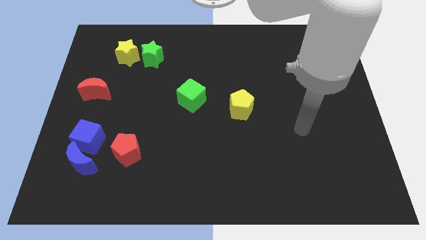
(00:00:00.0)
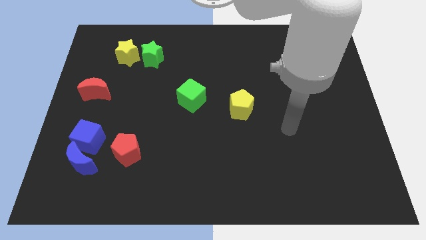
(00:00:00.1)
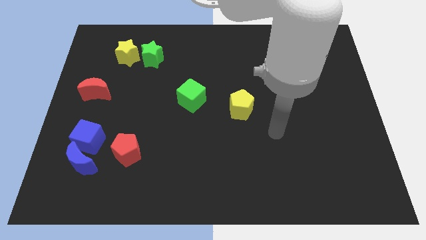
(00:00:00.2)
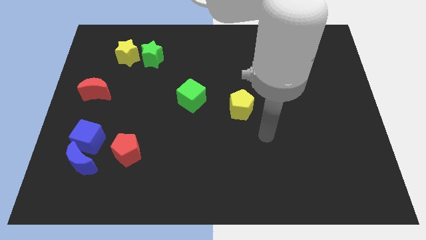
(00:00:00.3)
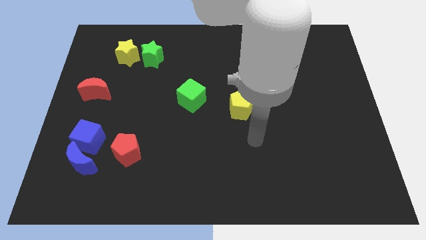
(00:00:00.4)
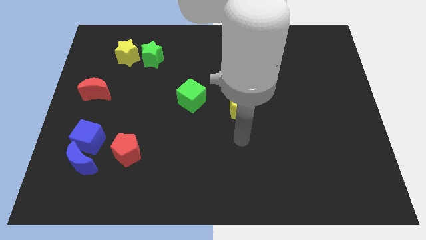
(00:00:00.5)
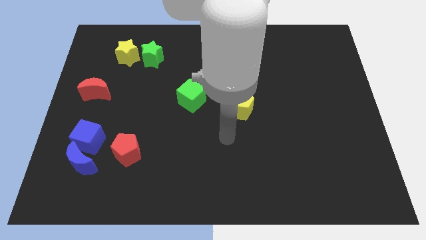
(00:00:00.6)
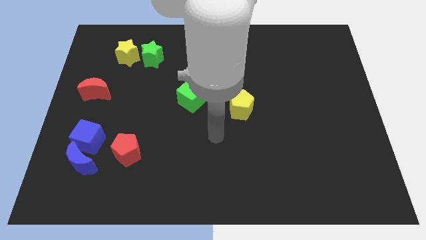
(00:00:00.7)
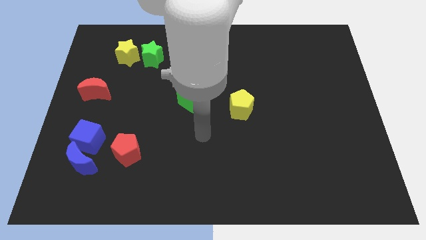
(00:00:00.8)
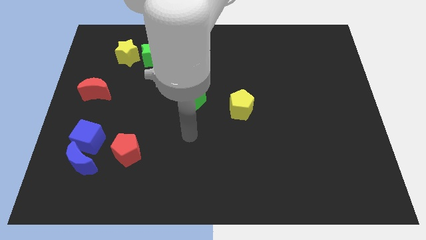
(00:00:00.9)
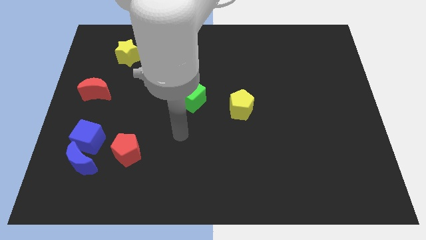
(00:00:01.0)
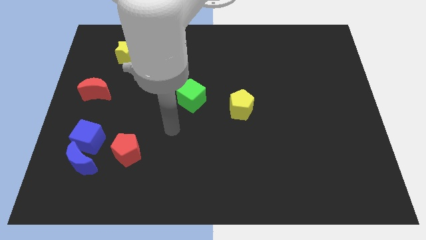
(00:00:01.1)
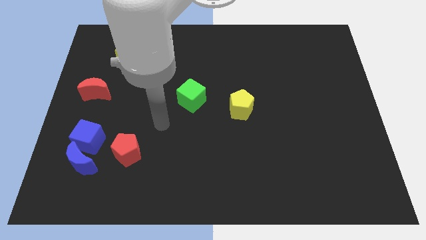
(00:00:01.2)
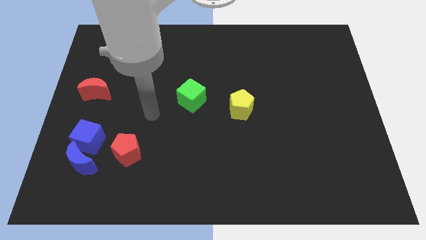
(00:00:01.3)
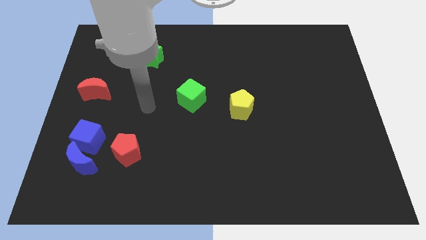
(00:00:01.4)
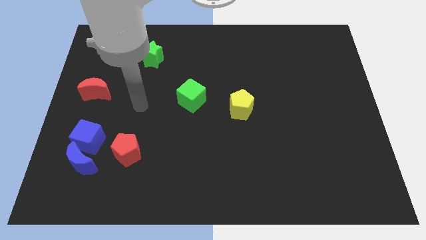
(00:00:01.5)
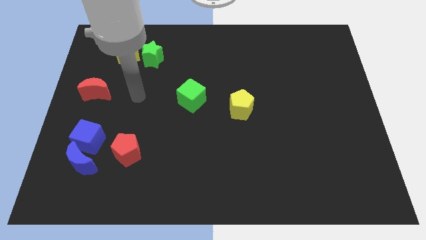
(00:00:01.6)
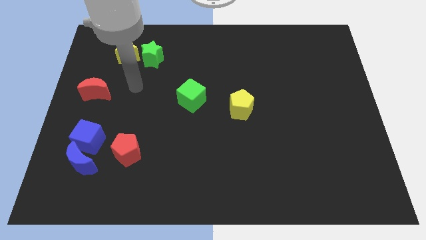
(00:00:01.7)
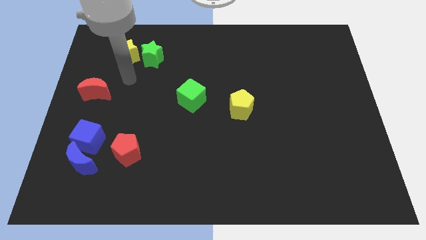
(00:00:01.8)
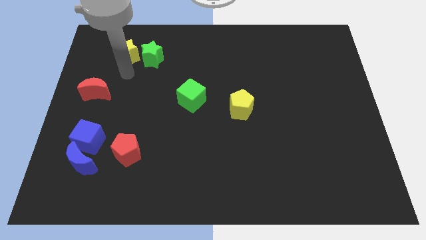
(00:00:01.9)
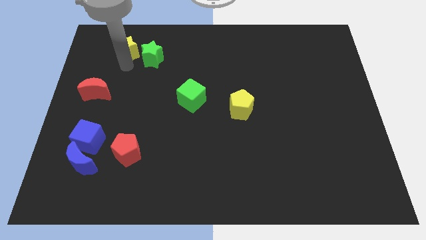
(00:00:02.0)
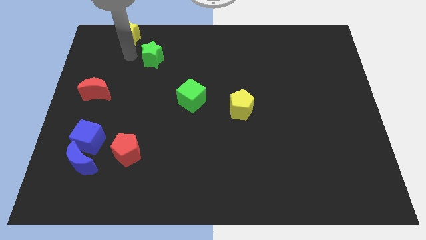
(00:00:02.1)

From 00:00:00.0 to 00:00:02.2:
pull the green star apart from the yellow star

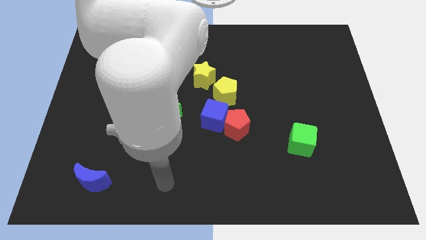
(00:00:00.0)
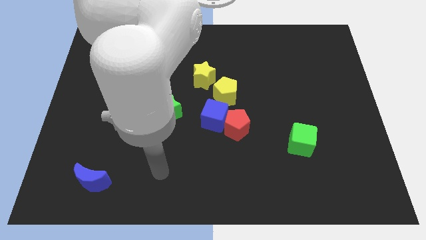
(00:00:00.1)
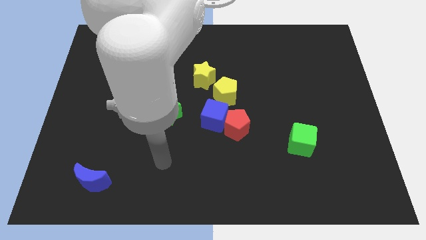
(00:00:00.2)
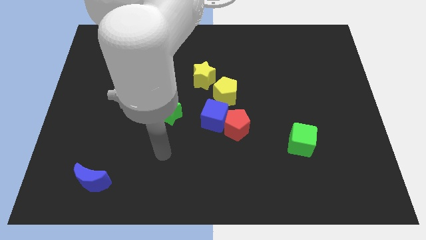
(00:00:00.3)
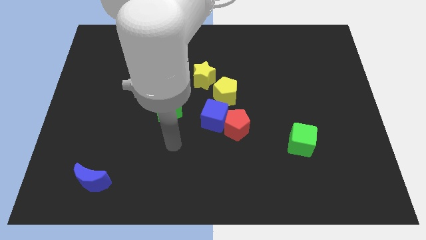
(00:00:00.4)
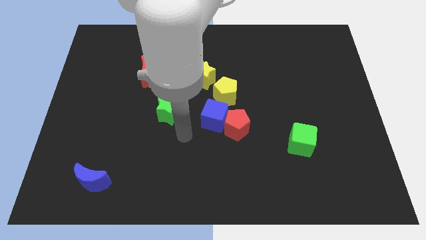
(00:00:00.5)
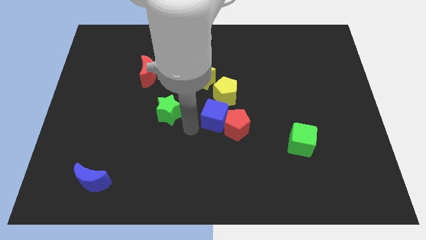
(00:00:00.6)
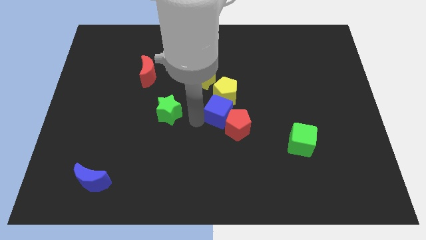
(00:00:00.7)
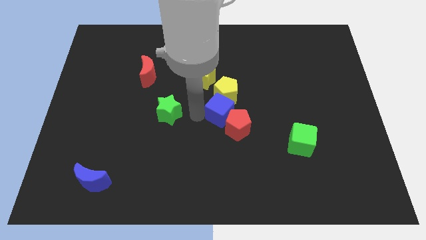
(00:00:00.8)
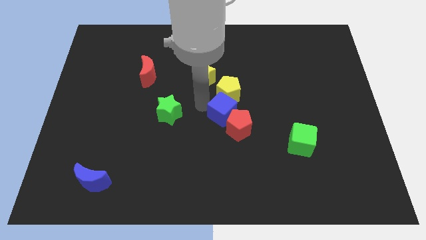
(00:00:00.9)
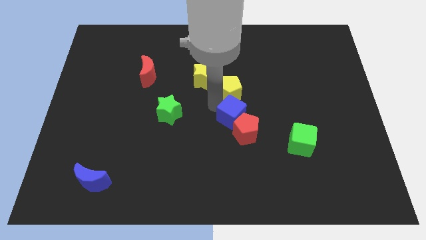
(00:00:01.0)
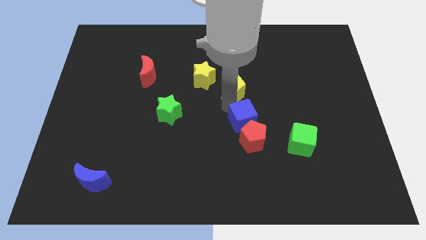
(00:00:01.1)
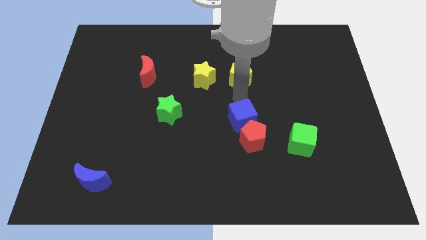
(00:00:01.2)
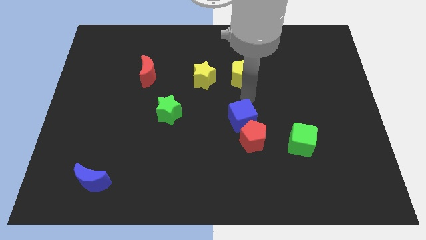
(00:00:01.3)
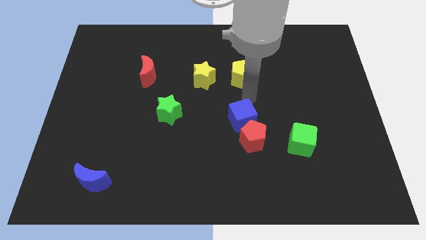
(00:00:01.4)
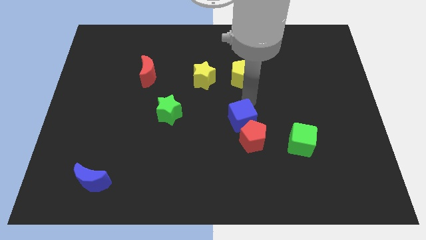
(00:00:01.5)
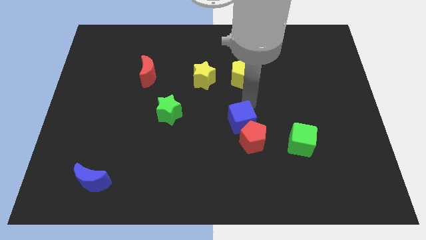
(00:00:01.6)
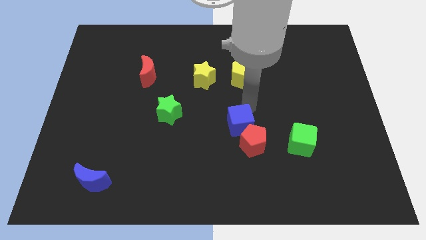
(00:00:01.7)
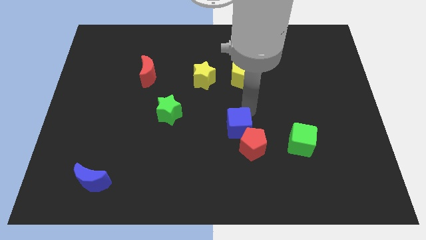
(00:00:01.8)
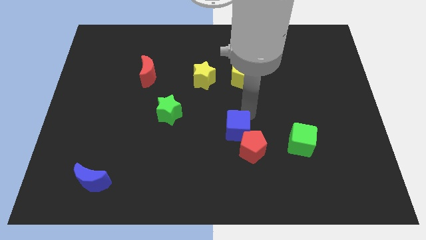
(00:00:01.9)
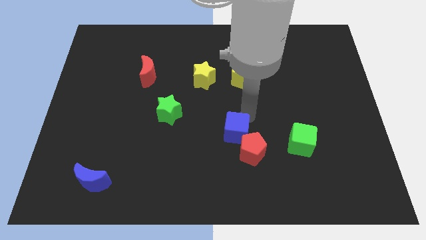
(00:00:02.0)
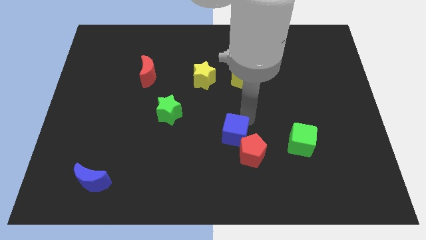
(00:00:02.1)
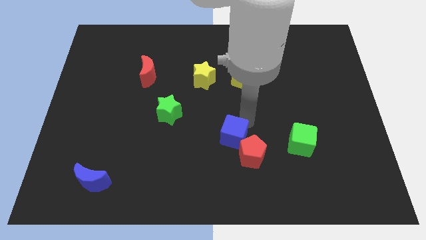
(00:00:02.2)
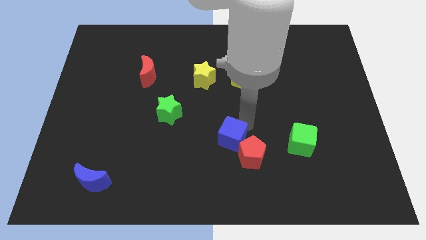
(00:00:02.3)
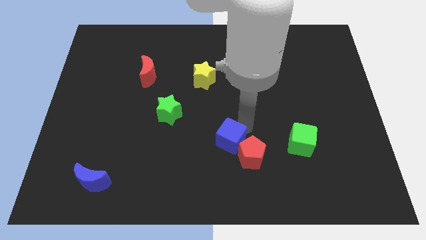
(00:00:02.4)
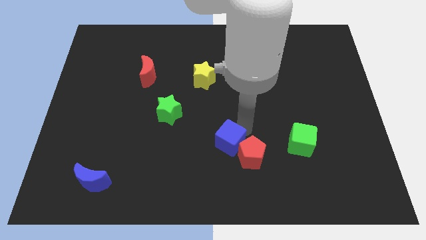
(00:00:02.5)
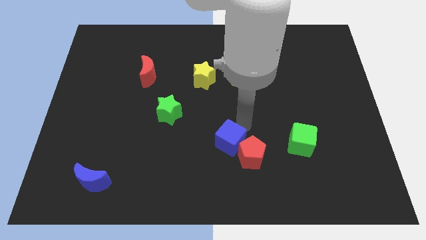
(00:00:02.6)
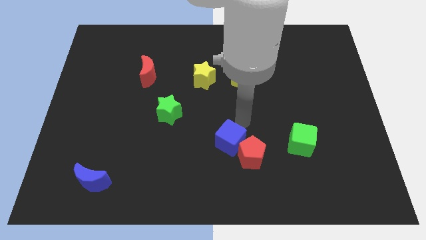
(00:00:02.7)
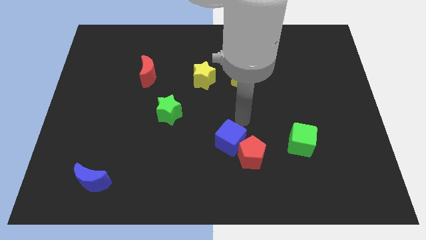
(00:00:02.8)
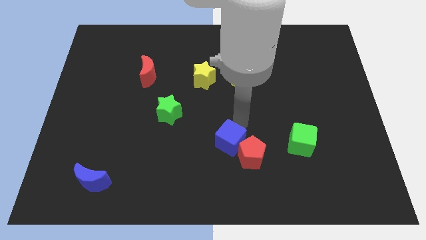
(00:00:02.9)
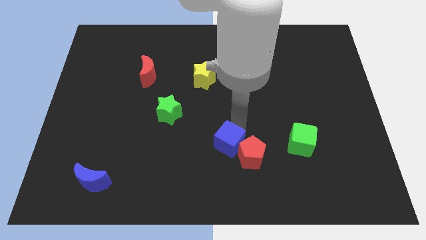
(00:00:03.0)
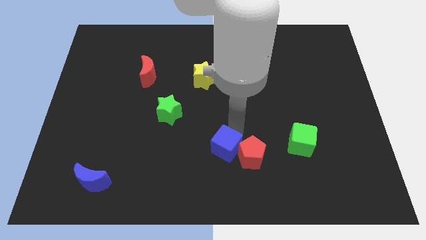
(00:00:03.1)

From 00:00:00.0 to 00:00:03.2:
pull the blue cube apart from the red pentagon and yellow pentagon

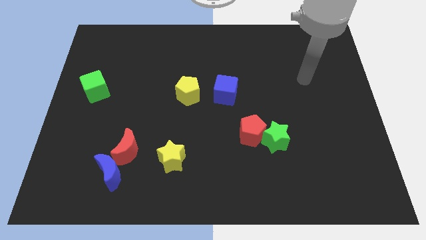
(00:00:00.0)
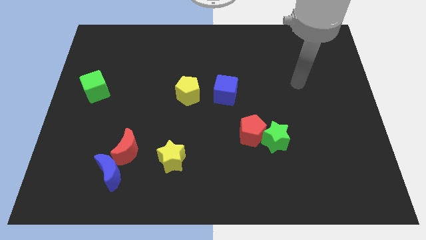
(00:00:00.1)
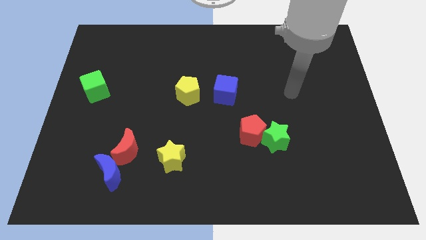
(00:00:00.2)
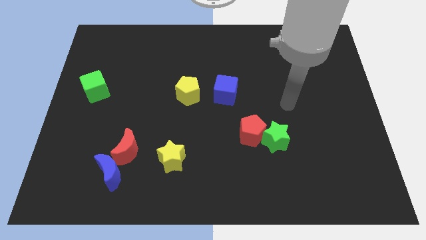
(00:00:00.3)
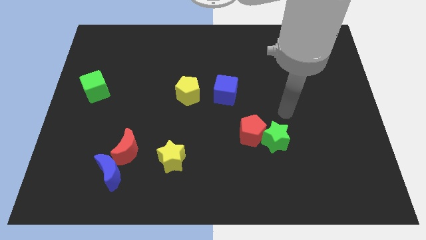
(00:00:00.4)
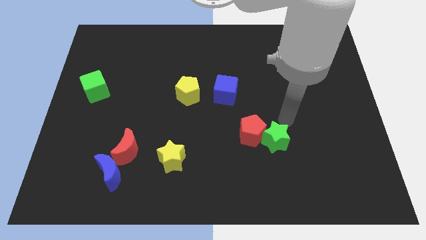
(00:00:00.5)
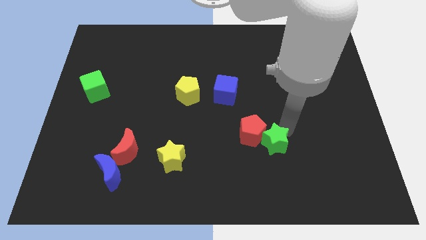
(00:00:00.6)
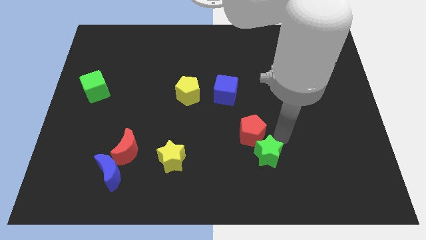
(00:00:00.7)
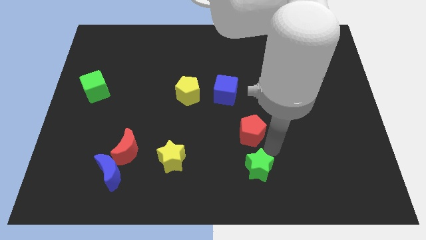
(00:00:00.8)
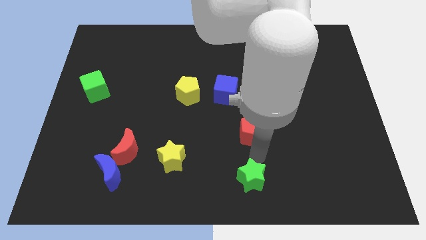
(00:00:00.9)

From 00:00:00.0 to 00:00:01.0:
move the red pentagon away from the green star

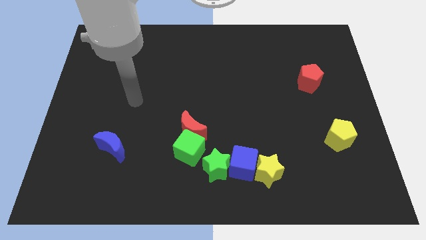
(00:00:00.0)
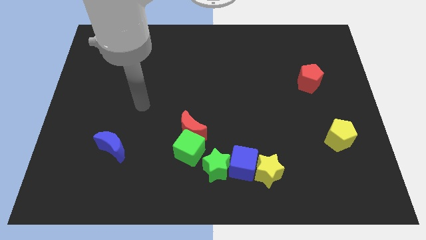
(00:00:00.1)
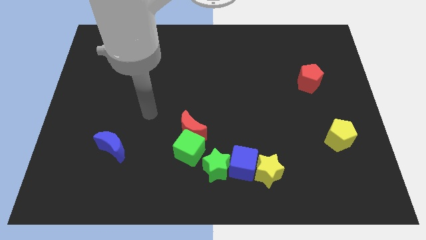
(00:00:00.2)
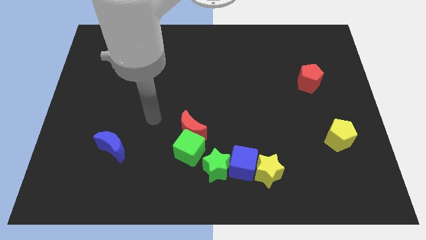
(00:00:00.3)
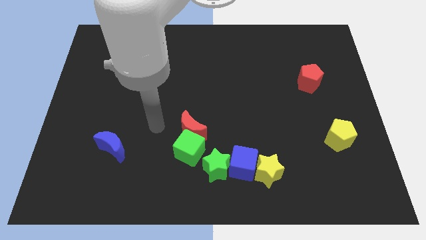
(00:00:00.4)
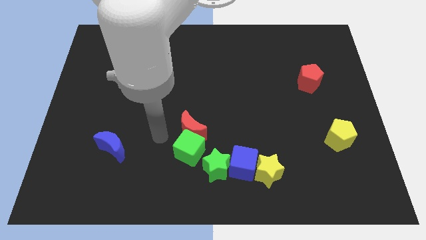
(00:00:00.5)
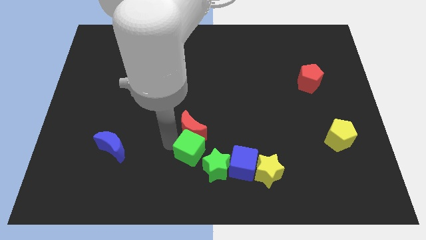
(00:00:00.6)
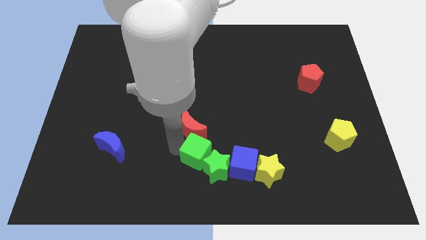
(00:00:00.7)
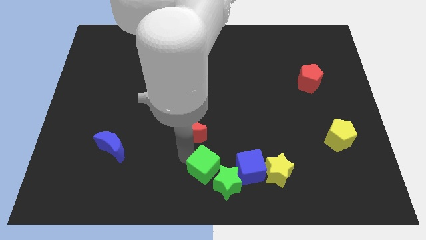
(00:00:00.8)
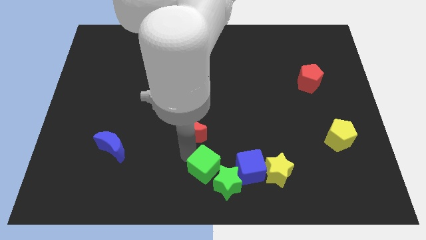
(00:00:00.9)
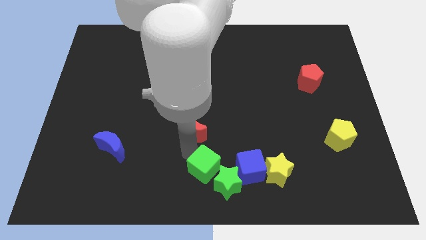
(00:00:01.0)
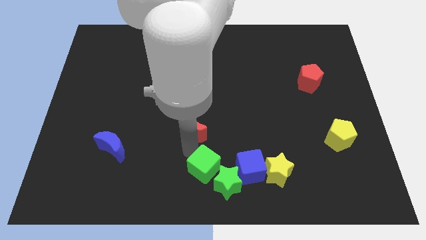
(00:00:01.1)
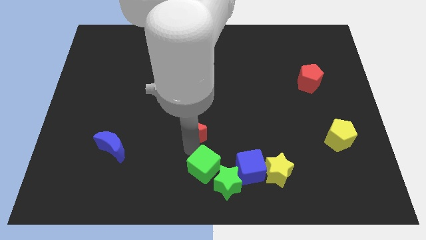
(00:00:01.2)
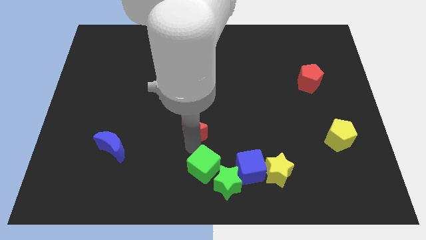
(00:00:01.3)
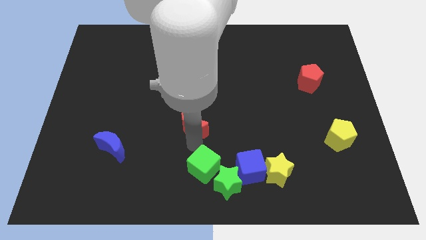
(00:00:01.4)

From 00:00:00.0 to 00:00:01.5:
pull the red moon apart from the green cube

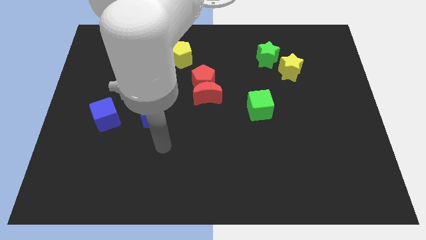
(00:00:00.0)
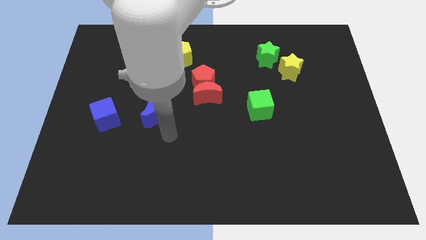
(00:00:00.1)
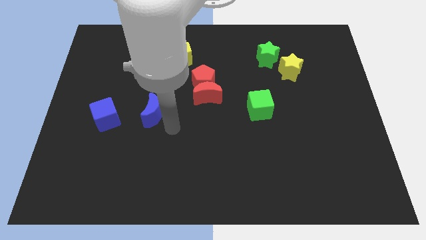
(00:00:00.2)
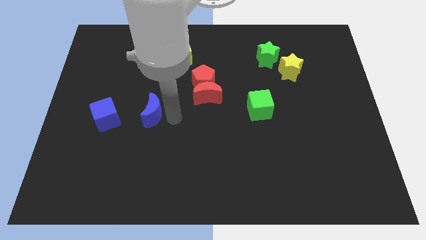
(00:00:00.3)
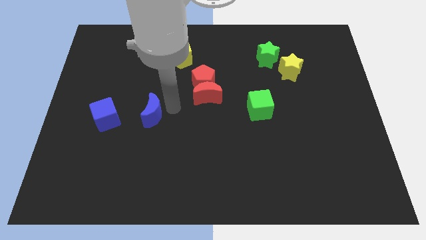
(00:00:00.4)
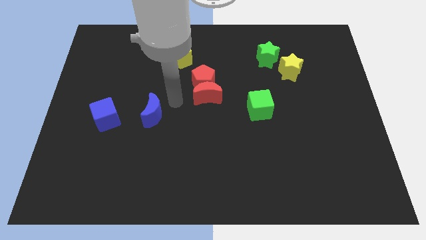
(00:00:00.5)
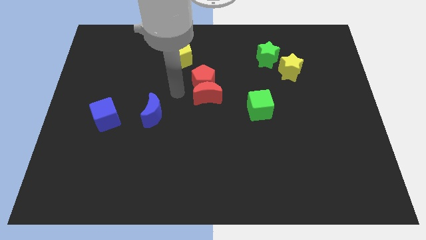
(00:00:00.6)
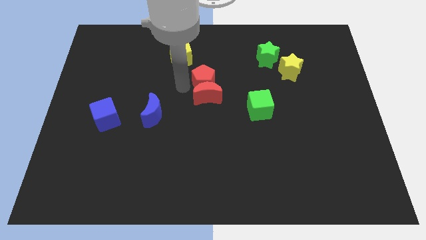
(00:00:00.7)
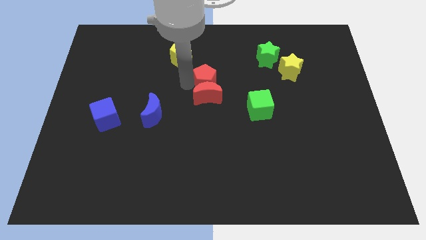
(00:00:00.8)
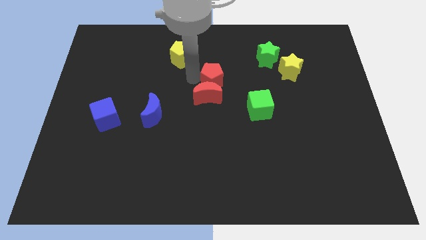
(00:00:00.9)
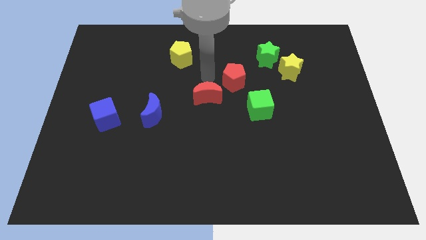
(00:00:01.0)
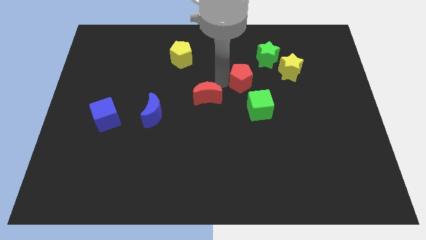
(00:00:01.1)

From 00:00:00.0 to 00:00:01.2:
move the red moon away from the red pentagon
